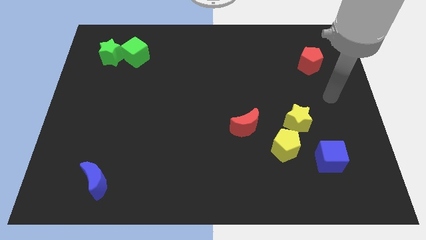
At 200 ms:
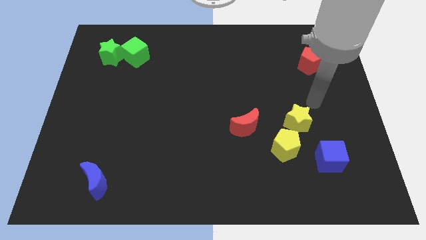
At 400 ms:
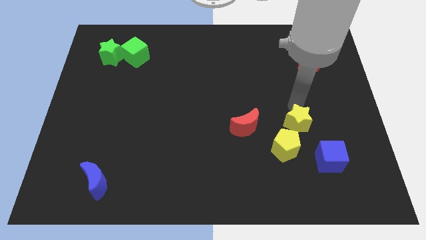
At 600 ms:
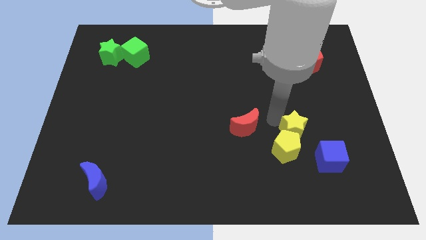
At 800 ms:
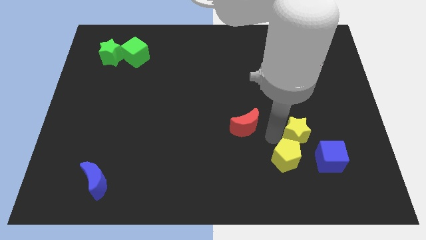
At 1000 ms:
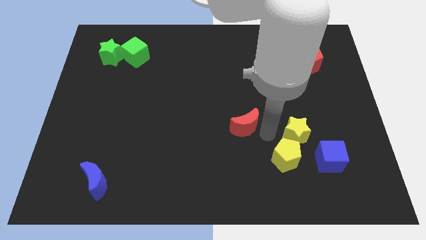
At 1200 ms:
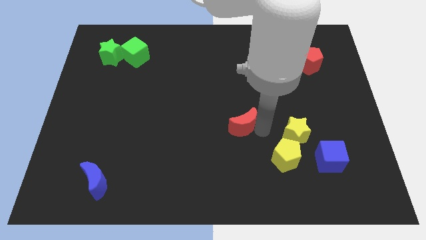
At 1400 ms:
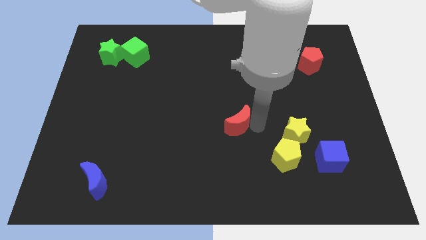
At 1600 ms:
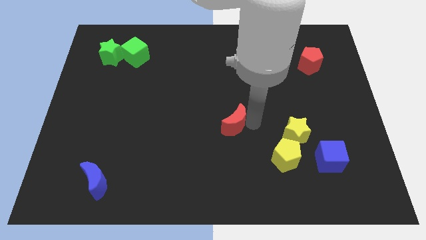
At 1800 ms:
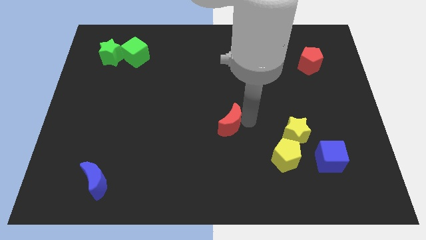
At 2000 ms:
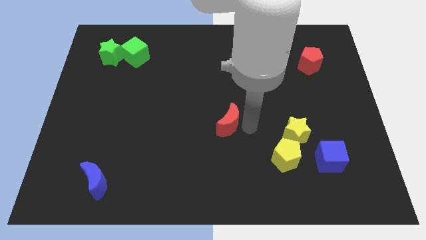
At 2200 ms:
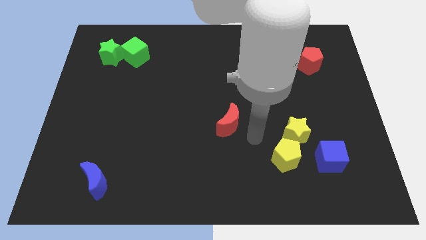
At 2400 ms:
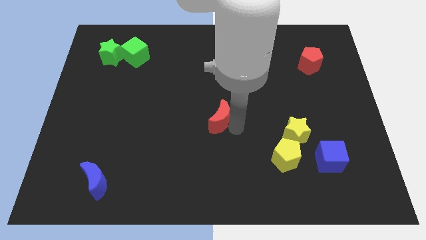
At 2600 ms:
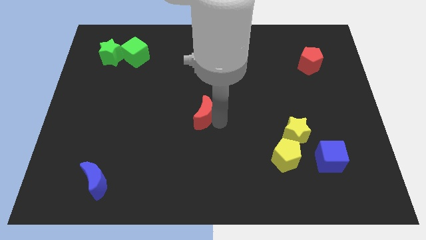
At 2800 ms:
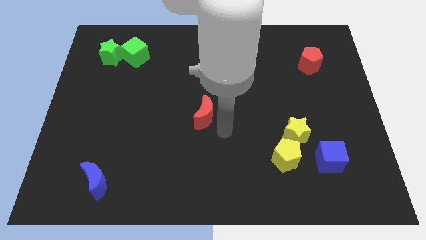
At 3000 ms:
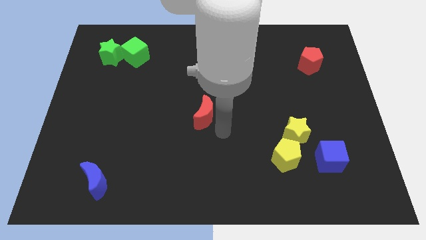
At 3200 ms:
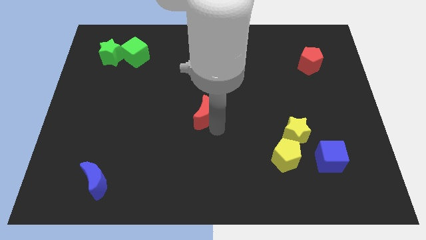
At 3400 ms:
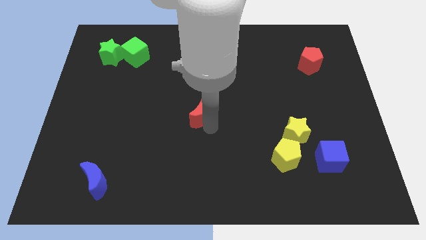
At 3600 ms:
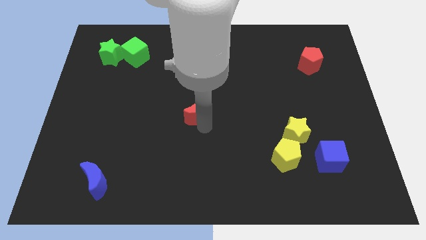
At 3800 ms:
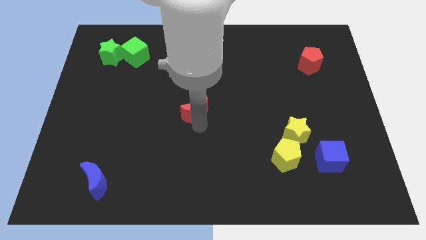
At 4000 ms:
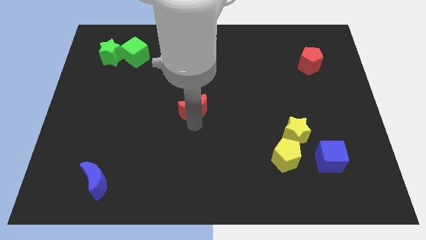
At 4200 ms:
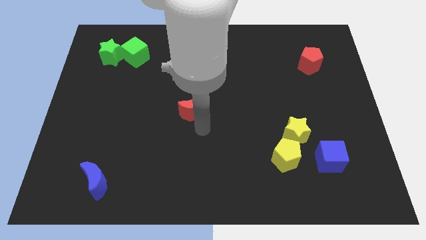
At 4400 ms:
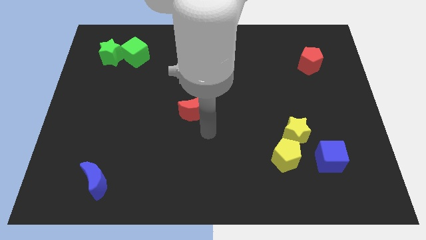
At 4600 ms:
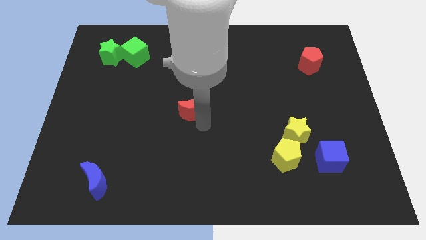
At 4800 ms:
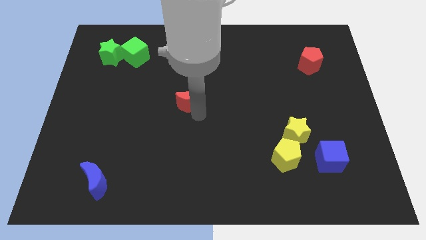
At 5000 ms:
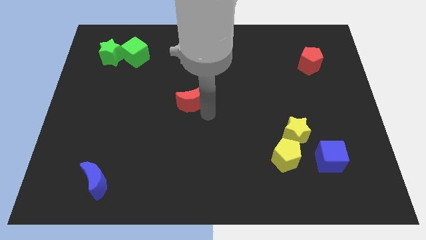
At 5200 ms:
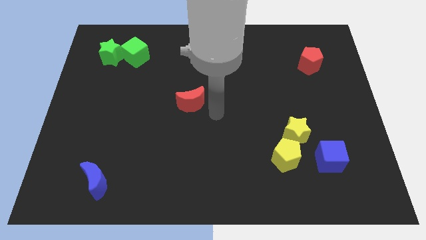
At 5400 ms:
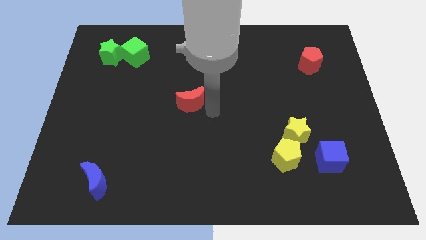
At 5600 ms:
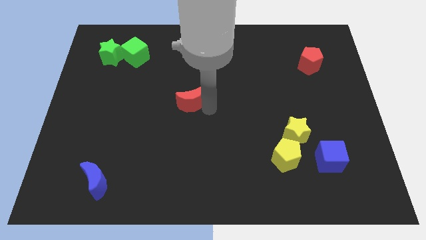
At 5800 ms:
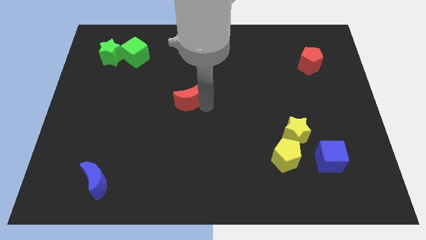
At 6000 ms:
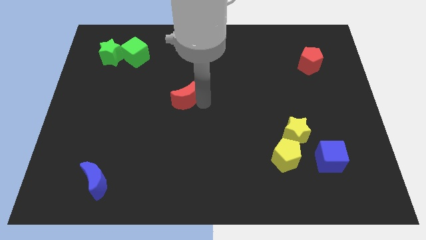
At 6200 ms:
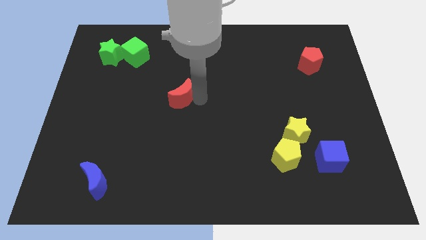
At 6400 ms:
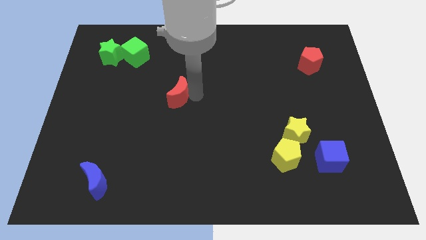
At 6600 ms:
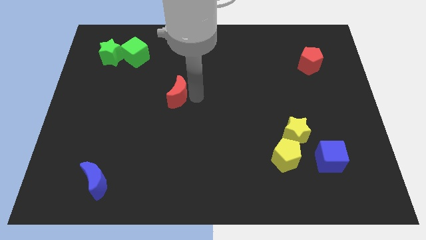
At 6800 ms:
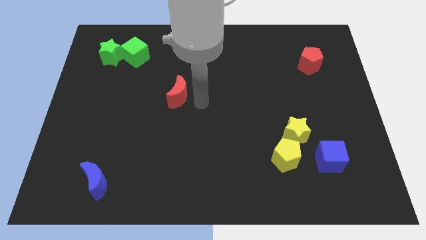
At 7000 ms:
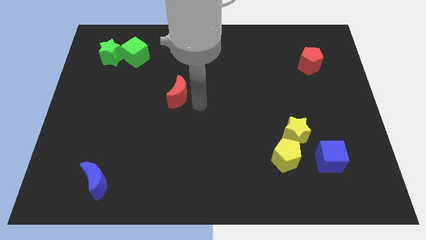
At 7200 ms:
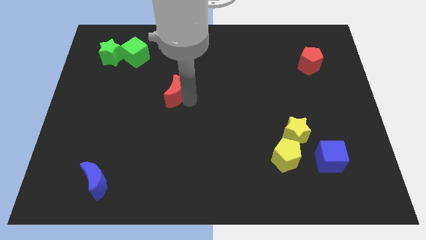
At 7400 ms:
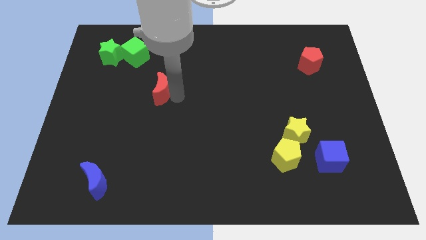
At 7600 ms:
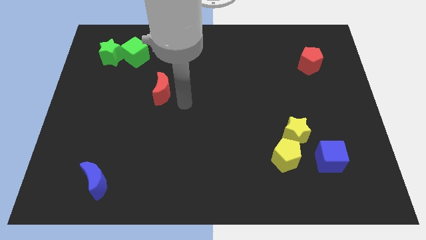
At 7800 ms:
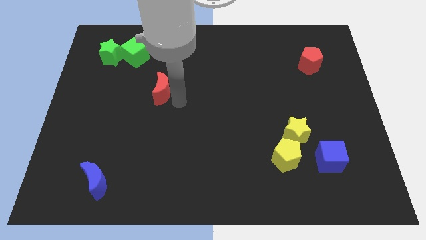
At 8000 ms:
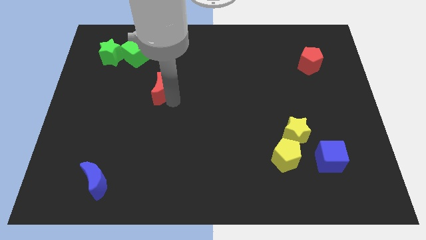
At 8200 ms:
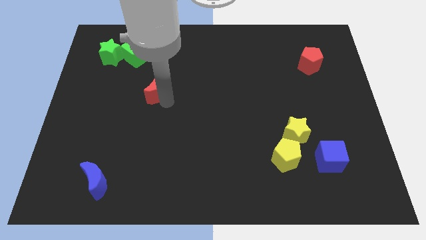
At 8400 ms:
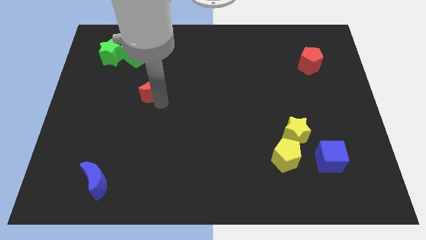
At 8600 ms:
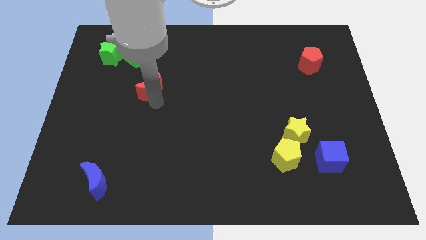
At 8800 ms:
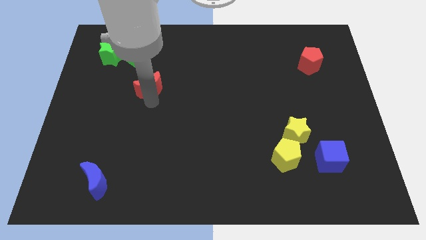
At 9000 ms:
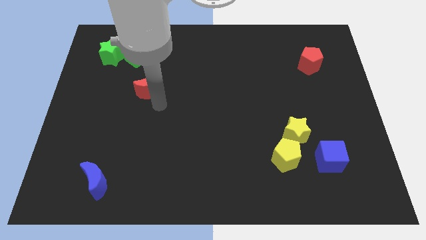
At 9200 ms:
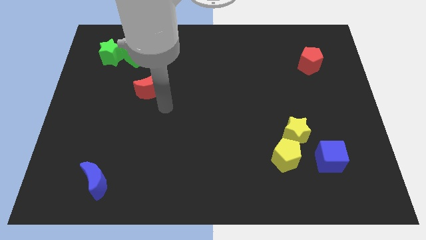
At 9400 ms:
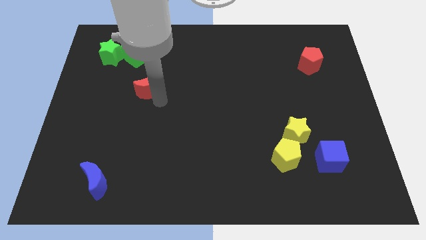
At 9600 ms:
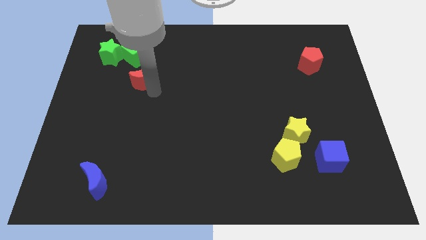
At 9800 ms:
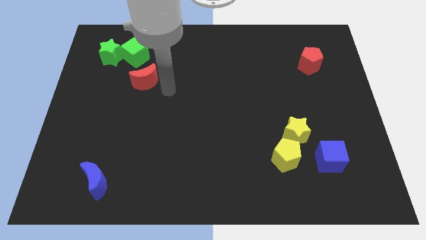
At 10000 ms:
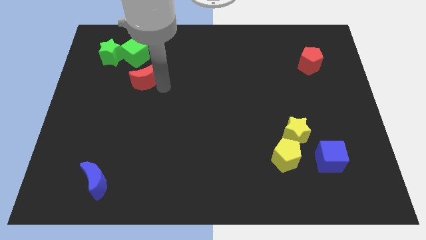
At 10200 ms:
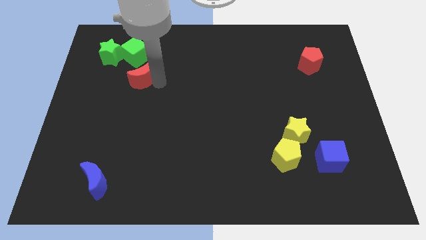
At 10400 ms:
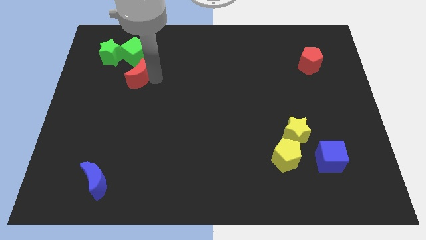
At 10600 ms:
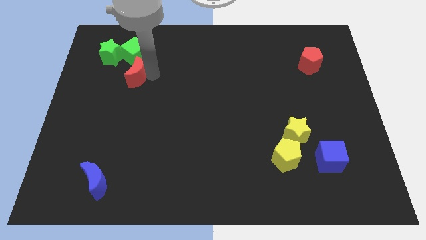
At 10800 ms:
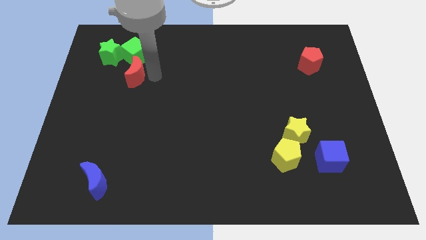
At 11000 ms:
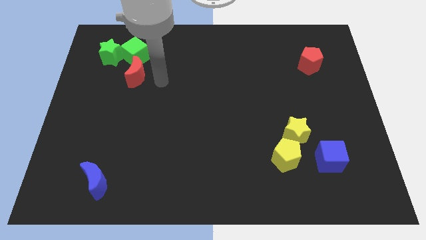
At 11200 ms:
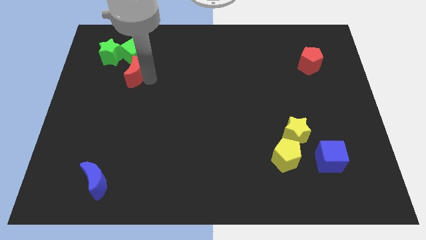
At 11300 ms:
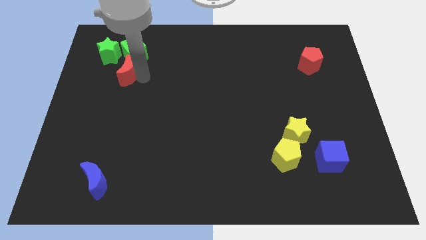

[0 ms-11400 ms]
push the red moon to the bottom left side of the green cube

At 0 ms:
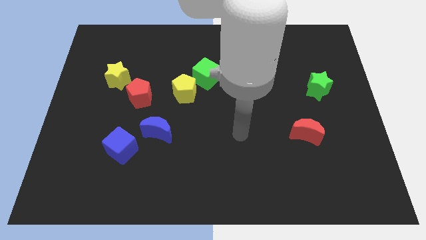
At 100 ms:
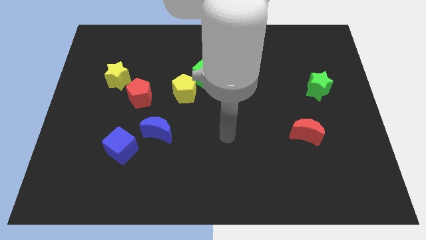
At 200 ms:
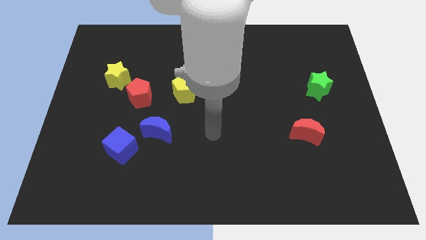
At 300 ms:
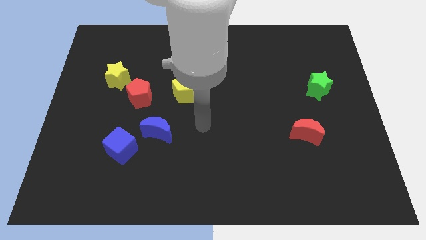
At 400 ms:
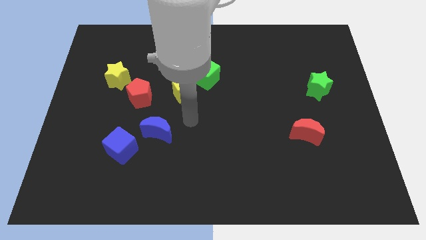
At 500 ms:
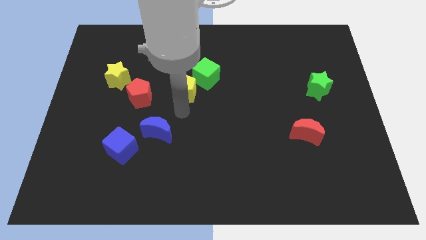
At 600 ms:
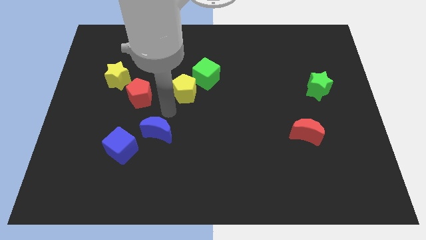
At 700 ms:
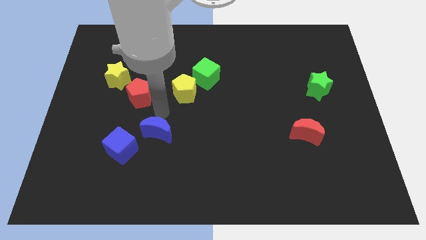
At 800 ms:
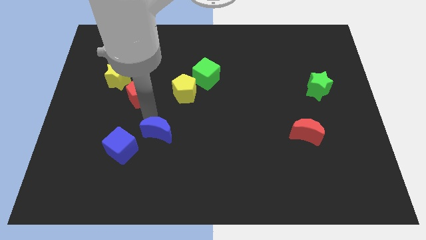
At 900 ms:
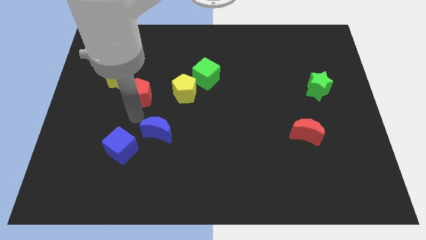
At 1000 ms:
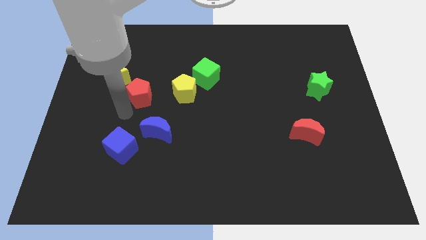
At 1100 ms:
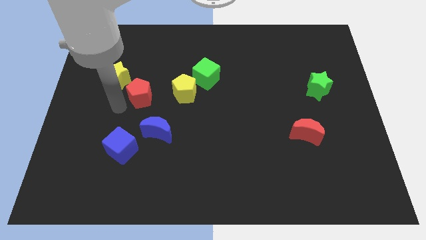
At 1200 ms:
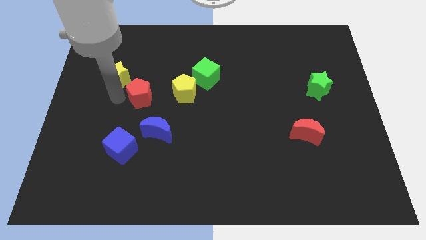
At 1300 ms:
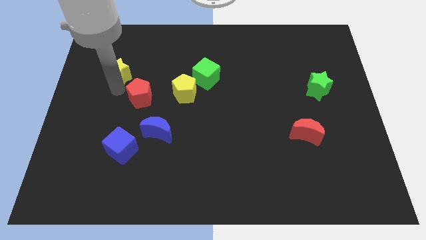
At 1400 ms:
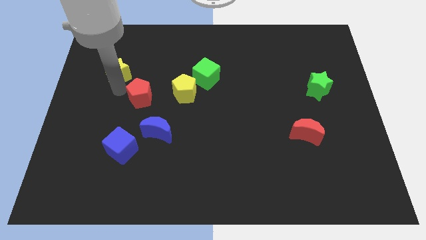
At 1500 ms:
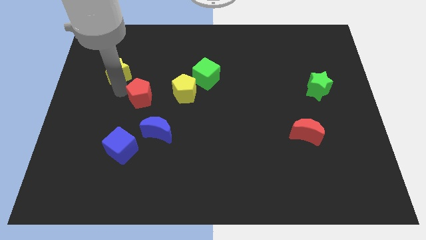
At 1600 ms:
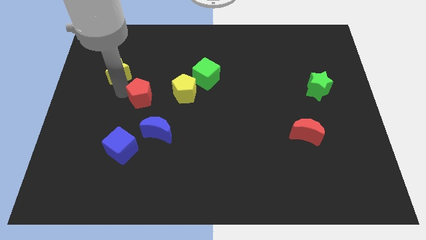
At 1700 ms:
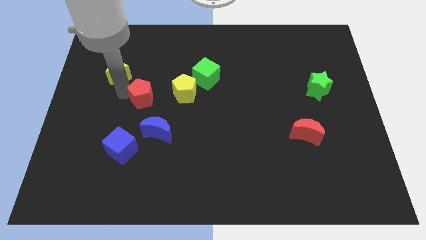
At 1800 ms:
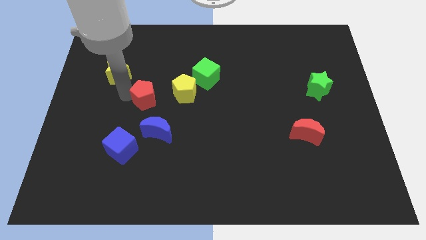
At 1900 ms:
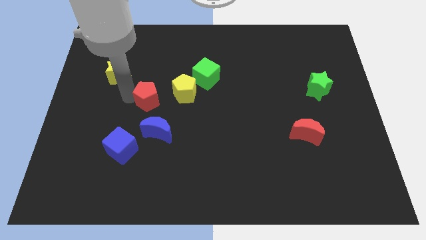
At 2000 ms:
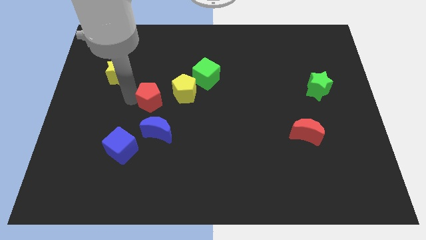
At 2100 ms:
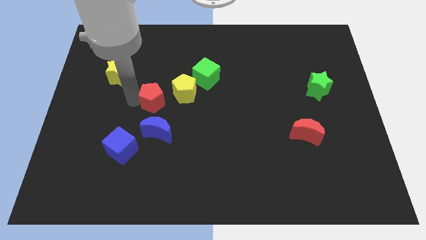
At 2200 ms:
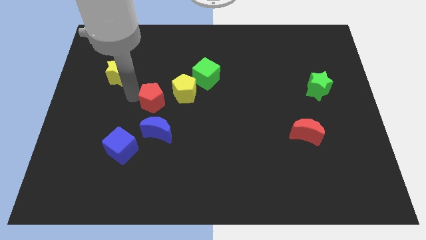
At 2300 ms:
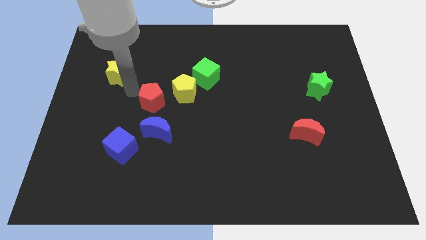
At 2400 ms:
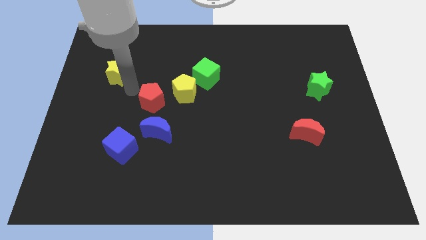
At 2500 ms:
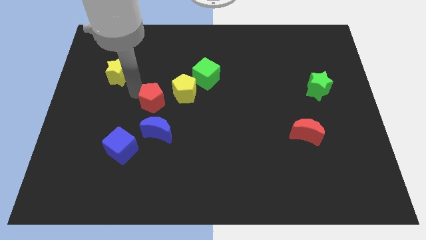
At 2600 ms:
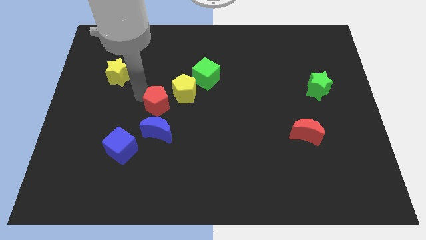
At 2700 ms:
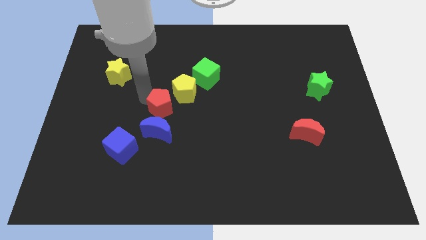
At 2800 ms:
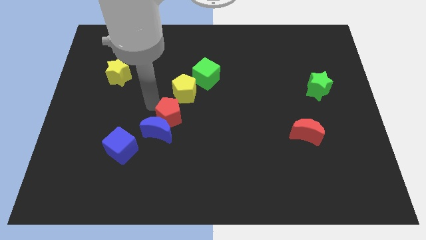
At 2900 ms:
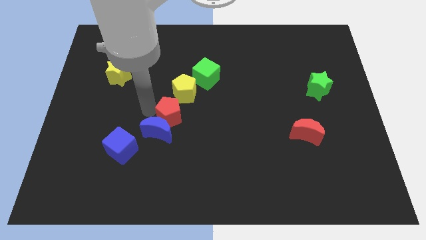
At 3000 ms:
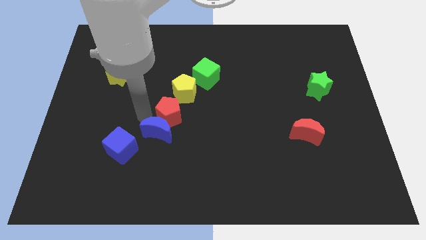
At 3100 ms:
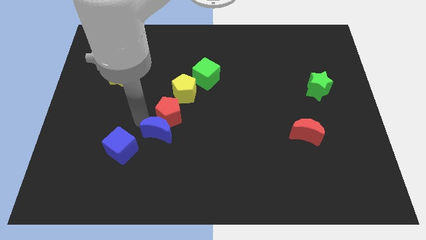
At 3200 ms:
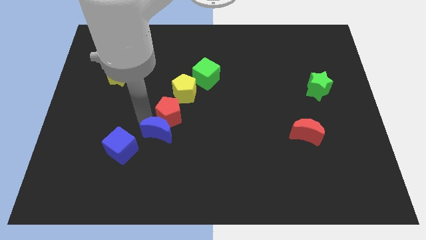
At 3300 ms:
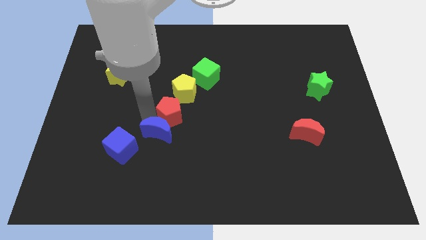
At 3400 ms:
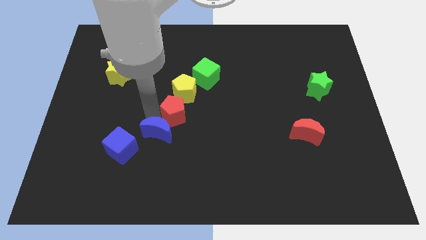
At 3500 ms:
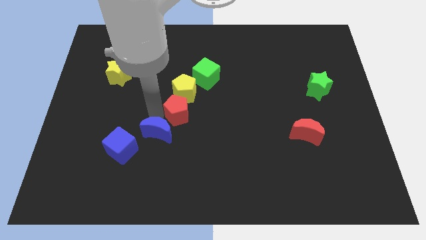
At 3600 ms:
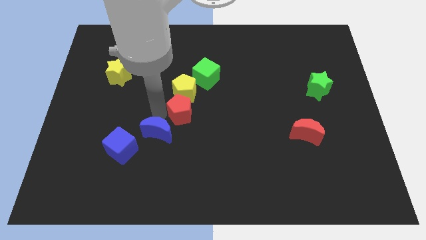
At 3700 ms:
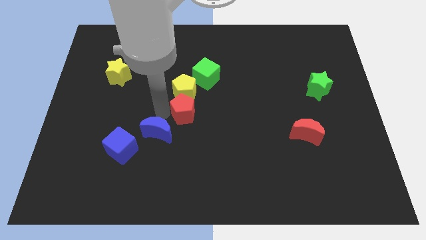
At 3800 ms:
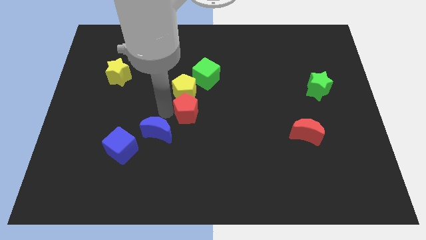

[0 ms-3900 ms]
push the red pentagon to the bottom of the green cube
